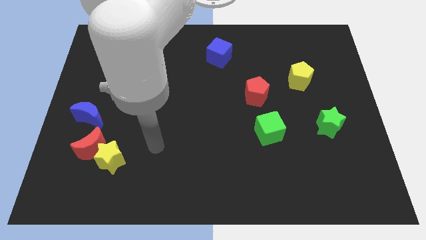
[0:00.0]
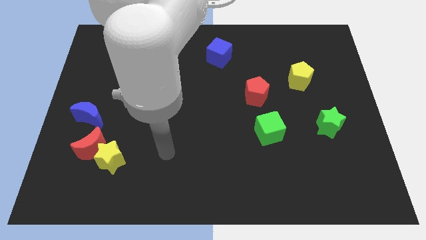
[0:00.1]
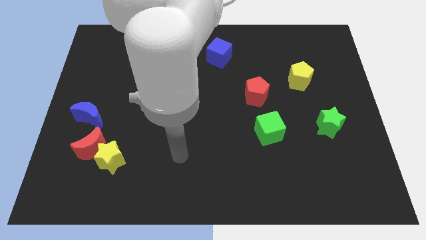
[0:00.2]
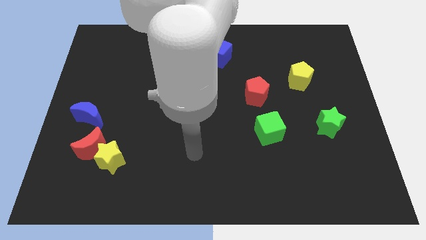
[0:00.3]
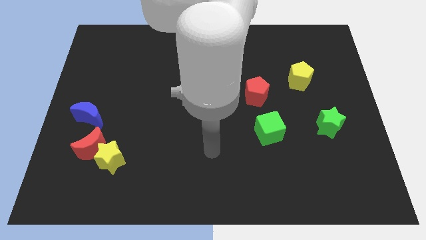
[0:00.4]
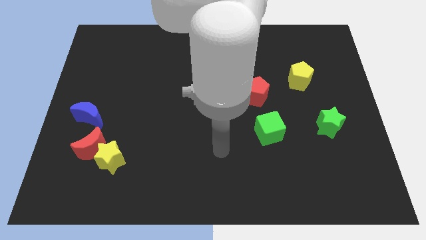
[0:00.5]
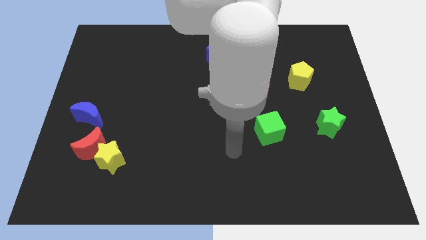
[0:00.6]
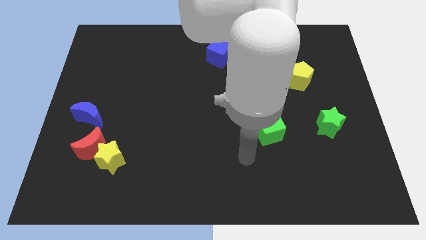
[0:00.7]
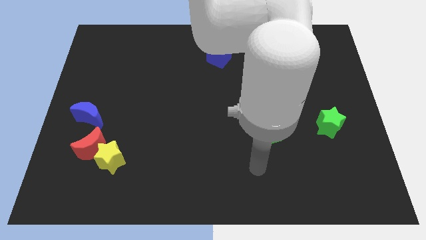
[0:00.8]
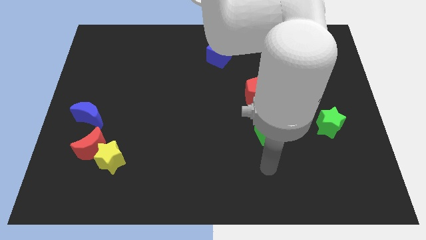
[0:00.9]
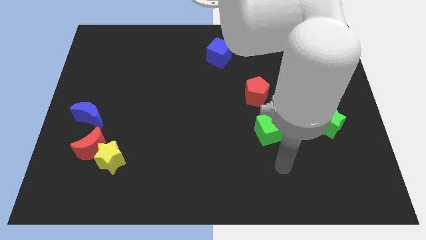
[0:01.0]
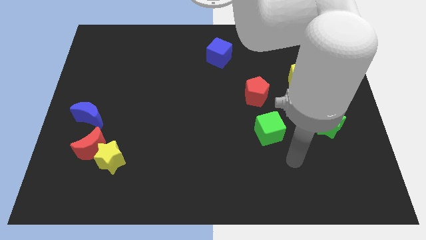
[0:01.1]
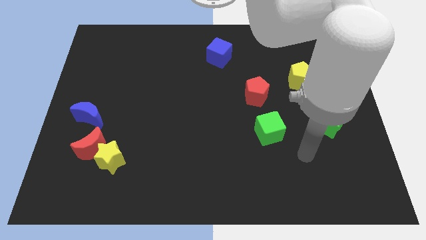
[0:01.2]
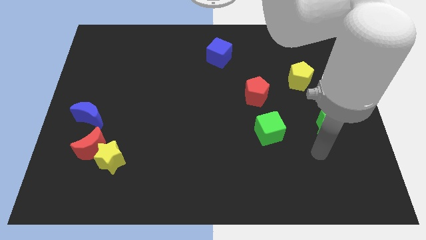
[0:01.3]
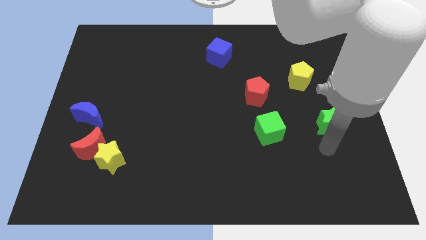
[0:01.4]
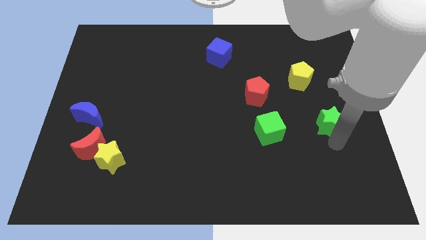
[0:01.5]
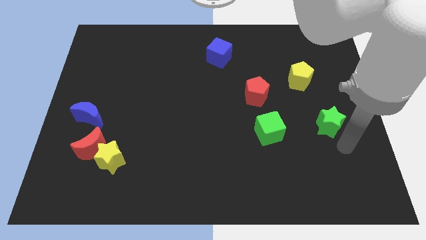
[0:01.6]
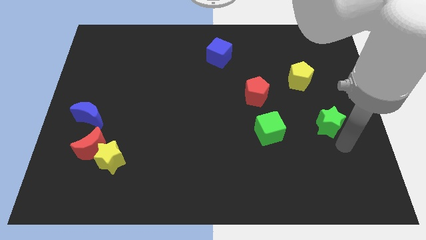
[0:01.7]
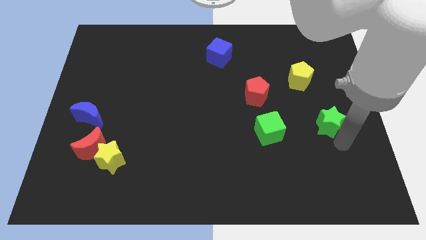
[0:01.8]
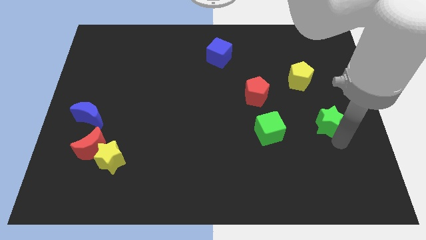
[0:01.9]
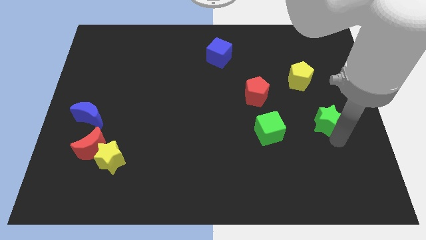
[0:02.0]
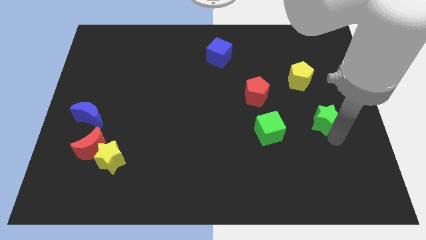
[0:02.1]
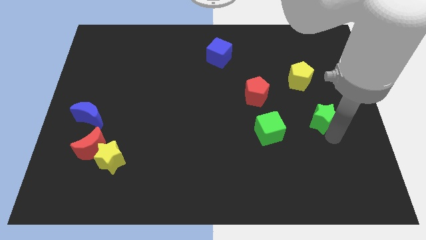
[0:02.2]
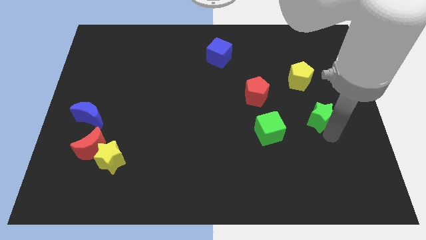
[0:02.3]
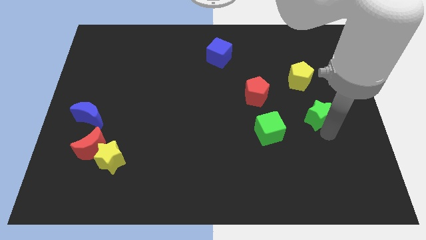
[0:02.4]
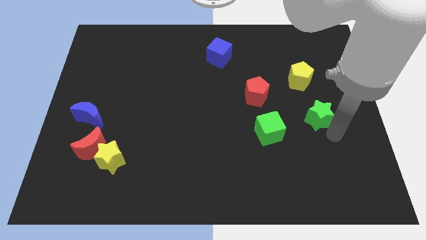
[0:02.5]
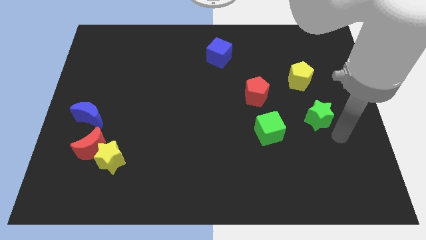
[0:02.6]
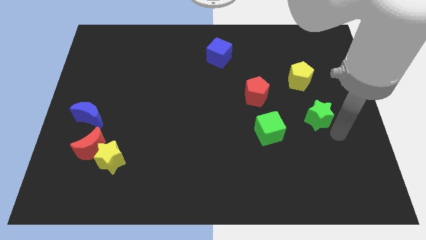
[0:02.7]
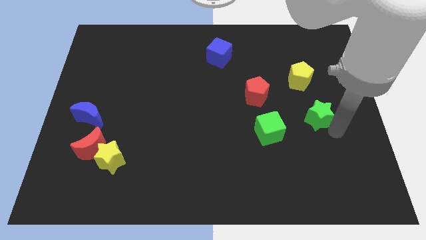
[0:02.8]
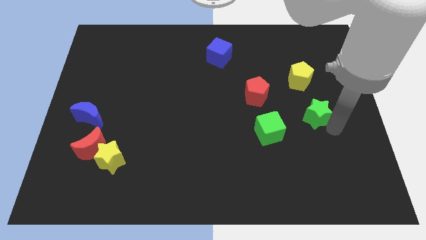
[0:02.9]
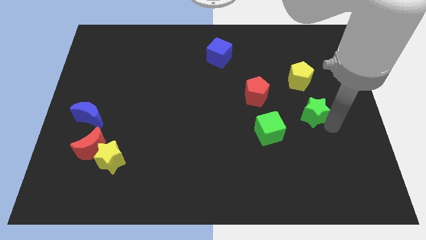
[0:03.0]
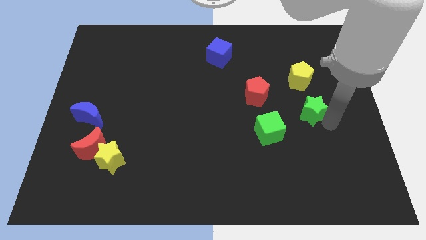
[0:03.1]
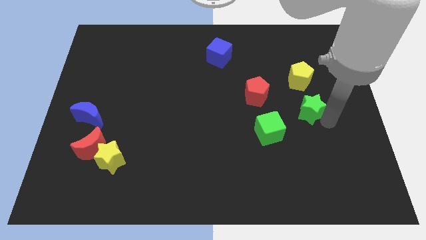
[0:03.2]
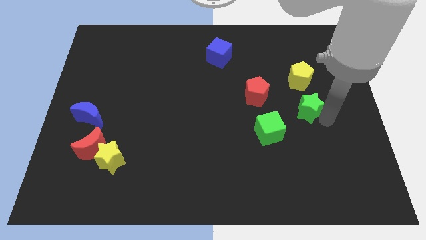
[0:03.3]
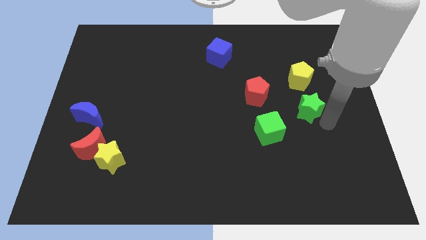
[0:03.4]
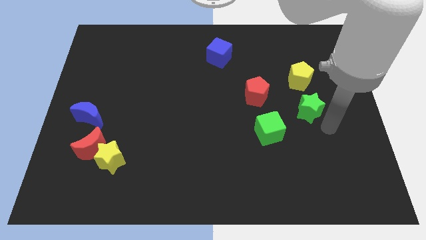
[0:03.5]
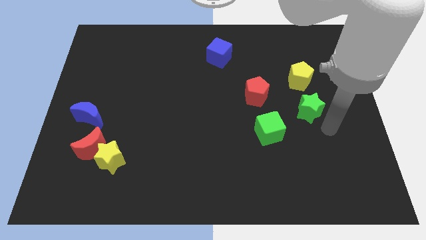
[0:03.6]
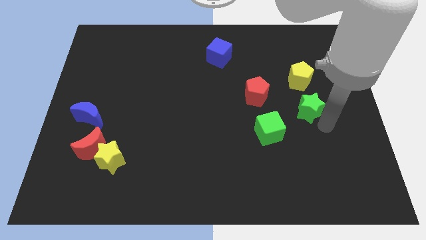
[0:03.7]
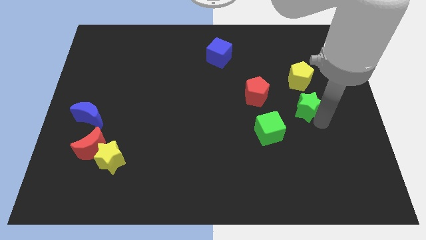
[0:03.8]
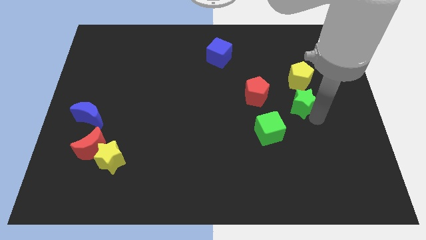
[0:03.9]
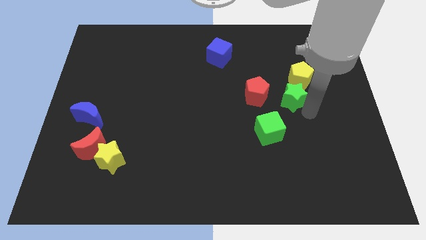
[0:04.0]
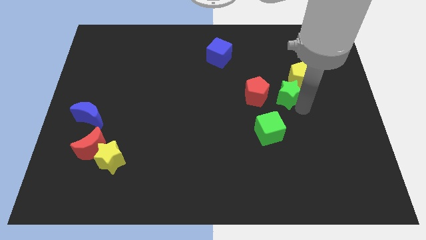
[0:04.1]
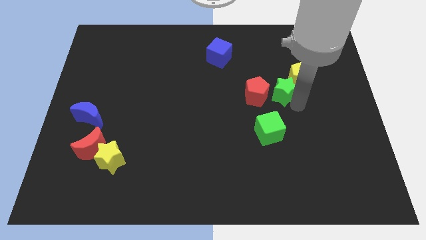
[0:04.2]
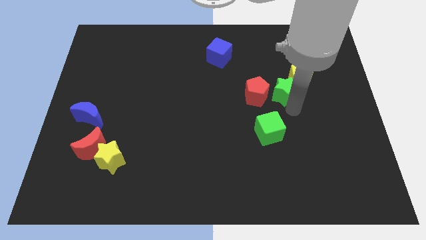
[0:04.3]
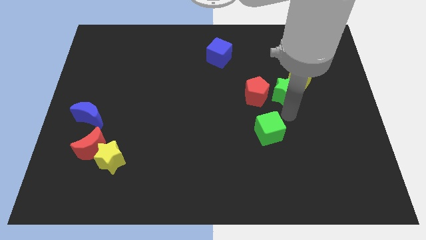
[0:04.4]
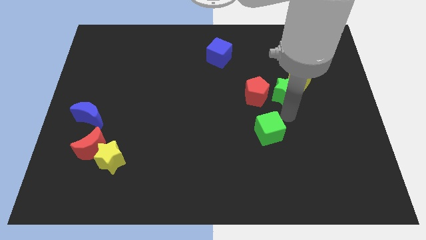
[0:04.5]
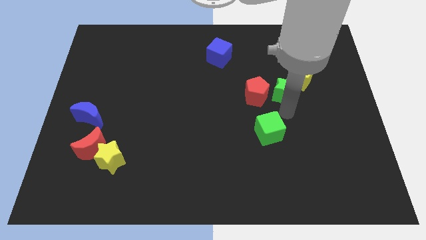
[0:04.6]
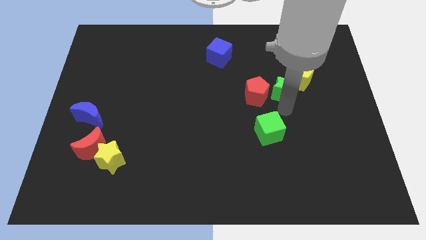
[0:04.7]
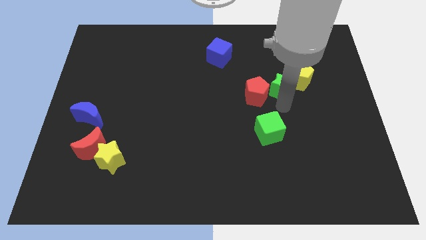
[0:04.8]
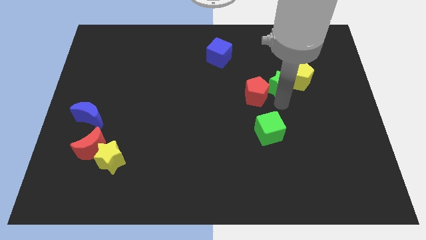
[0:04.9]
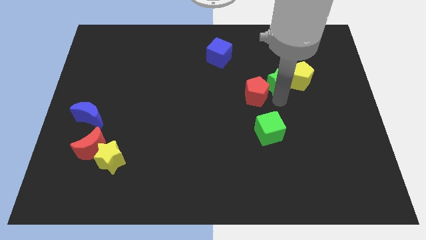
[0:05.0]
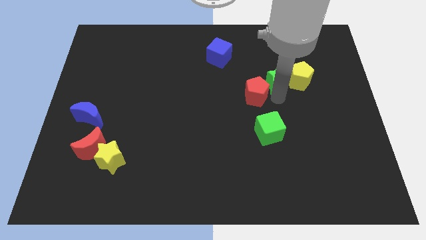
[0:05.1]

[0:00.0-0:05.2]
move the green star to the top left of the yellow pentagon

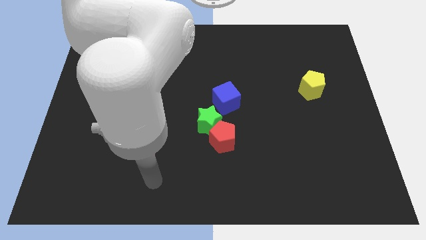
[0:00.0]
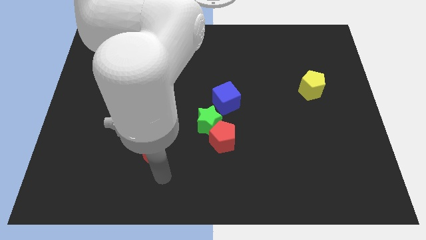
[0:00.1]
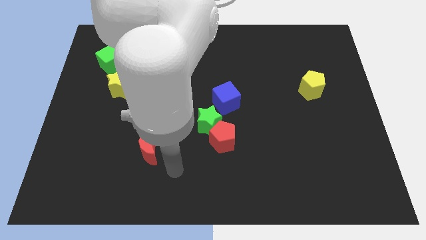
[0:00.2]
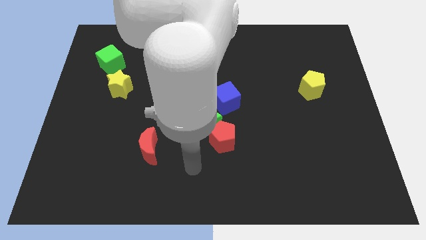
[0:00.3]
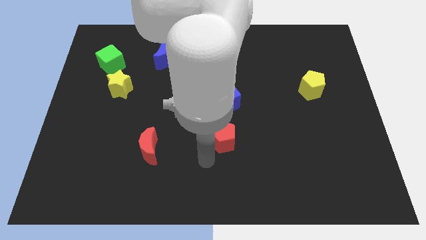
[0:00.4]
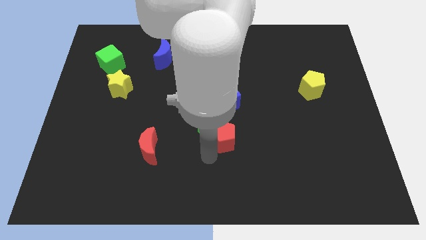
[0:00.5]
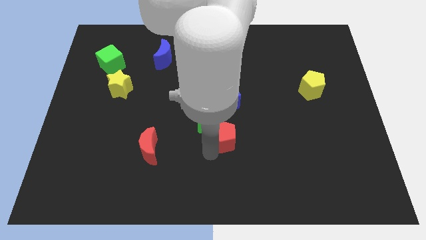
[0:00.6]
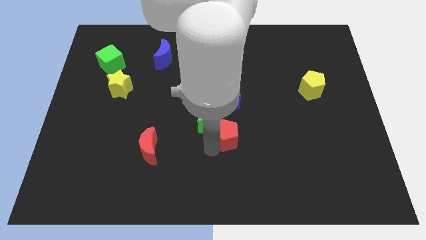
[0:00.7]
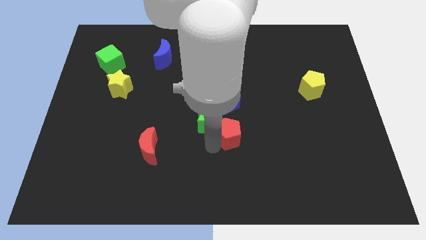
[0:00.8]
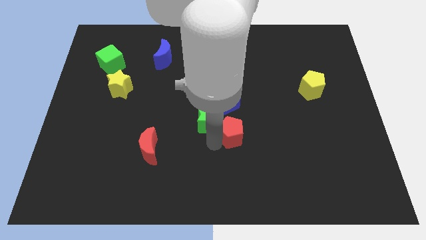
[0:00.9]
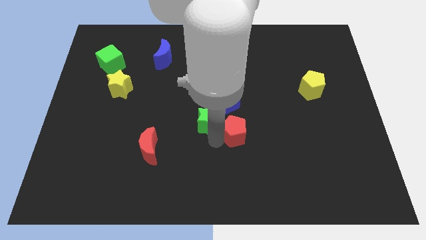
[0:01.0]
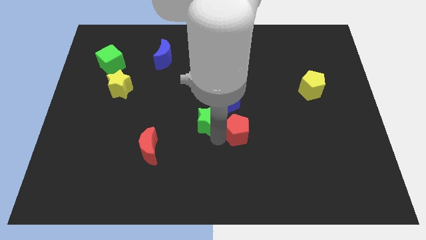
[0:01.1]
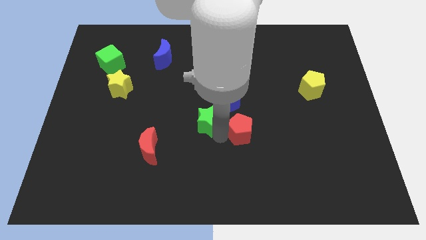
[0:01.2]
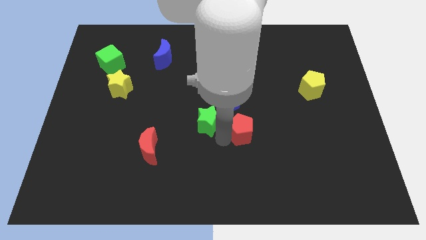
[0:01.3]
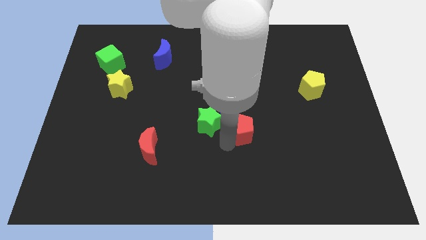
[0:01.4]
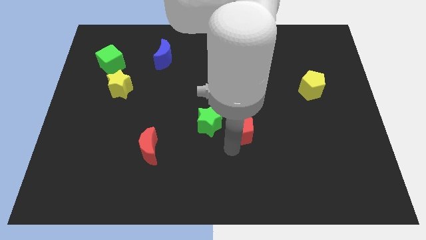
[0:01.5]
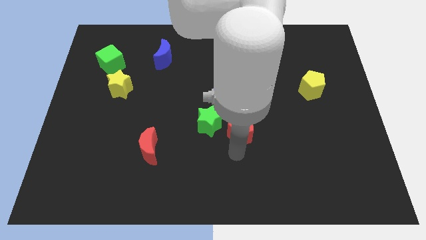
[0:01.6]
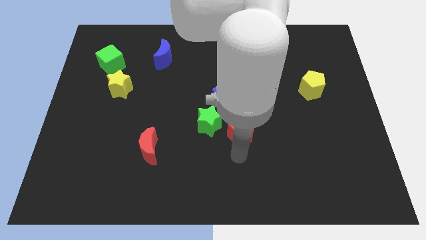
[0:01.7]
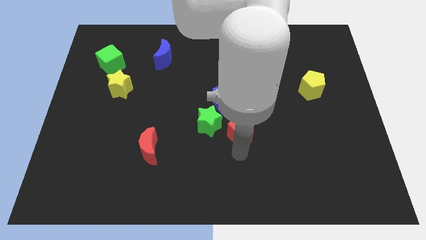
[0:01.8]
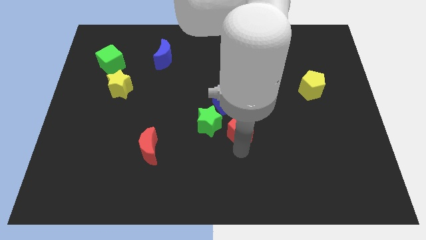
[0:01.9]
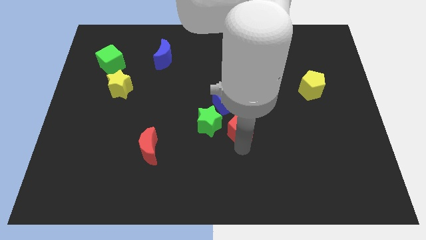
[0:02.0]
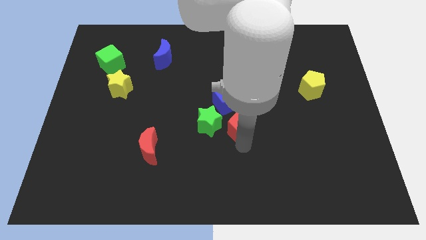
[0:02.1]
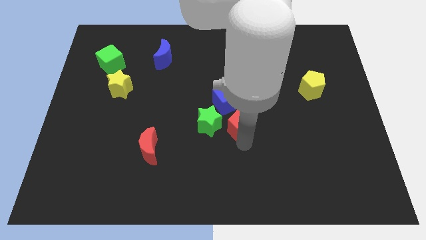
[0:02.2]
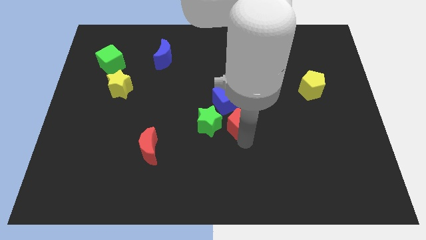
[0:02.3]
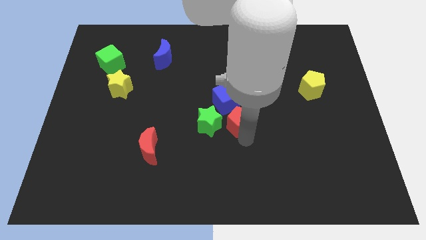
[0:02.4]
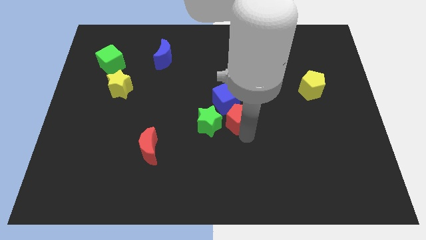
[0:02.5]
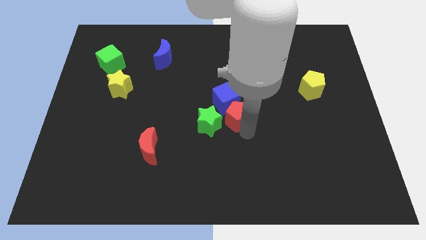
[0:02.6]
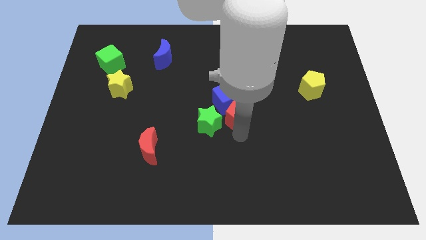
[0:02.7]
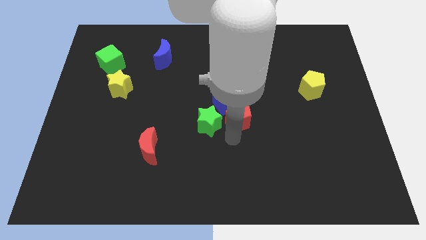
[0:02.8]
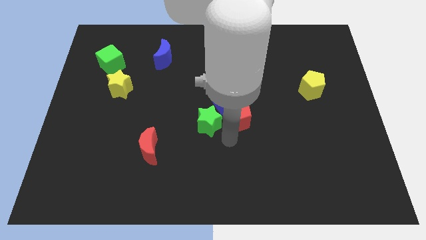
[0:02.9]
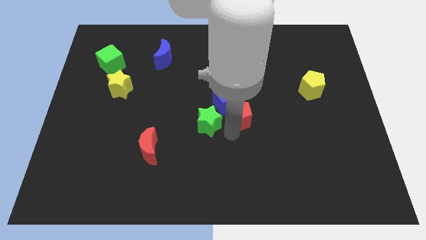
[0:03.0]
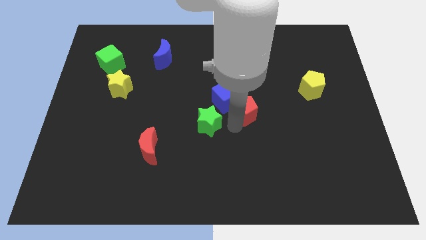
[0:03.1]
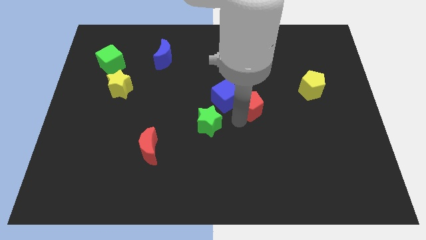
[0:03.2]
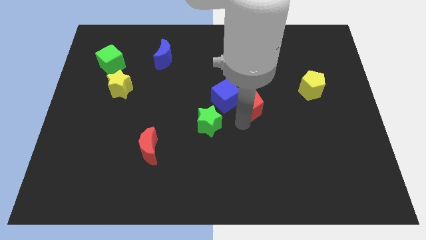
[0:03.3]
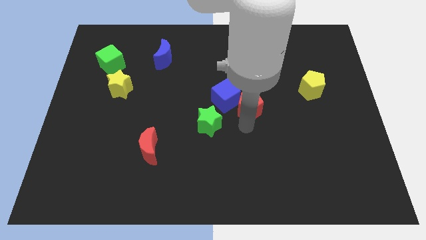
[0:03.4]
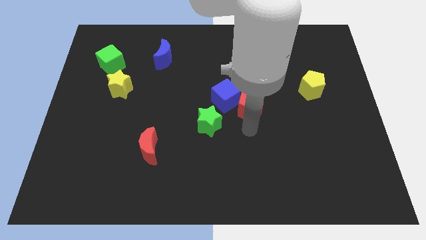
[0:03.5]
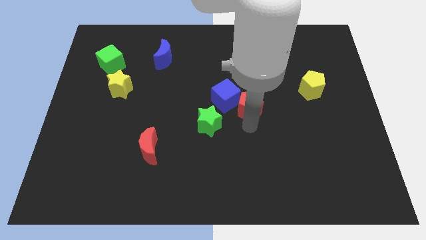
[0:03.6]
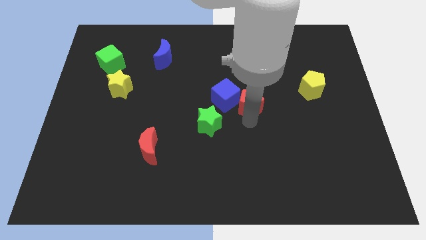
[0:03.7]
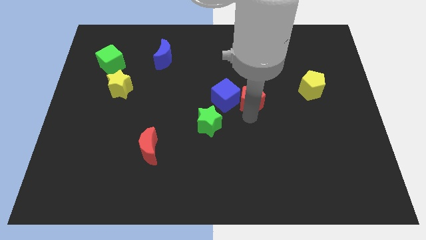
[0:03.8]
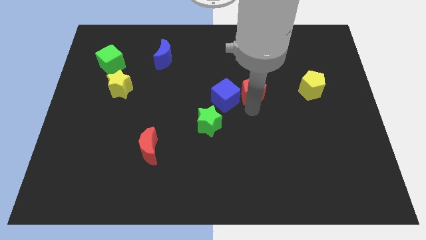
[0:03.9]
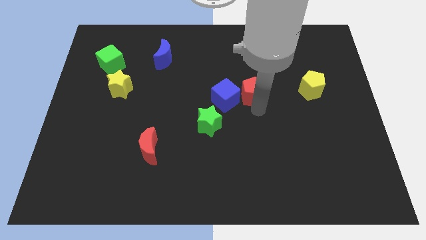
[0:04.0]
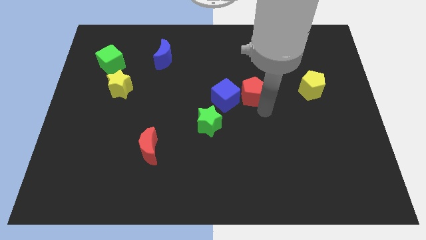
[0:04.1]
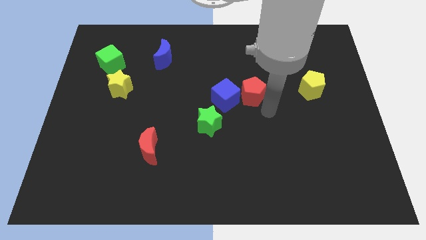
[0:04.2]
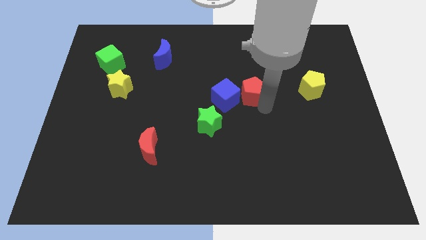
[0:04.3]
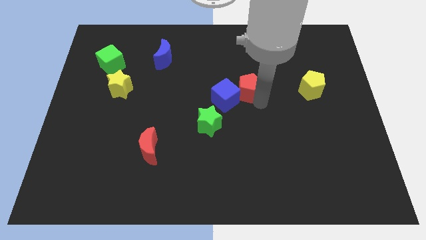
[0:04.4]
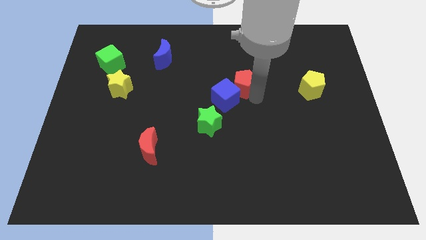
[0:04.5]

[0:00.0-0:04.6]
push the red pentagon to the top of the blue cube
